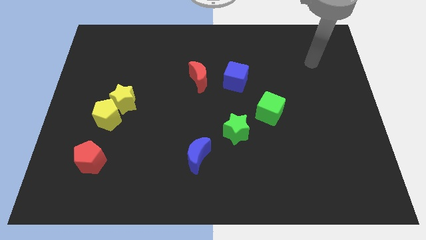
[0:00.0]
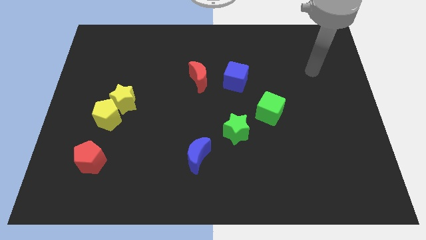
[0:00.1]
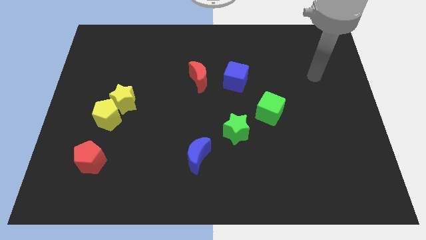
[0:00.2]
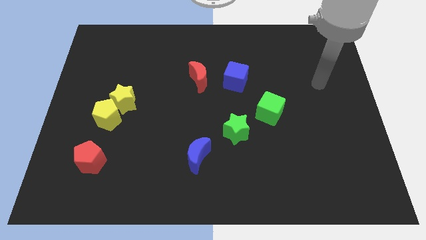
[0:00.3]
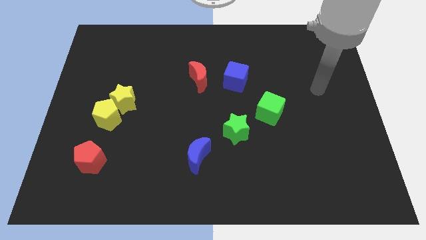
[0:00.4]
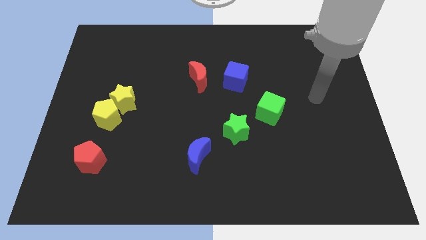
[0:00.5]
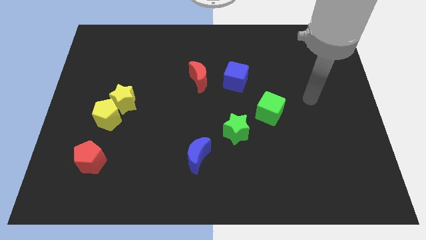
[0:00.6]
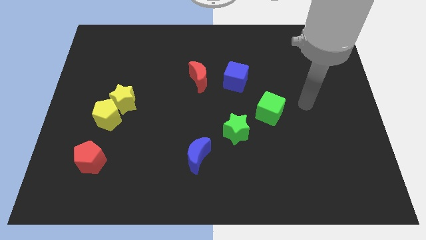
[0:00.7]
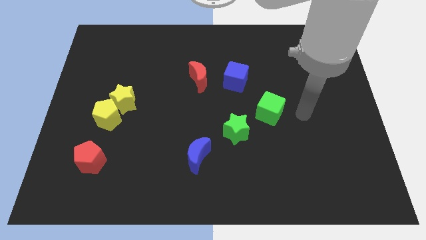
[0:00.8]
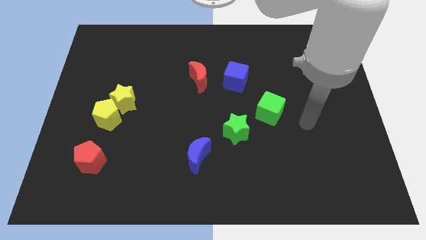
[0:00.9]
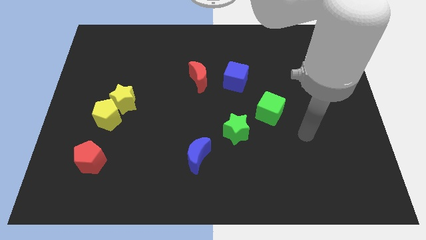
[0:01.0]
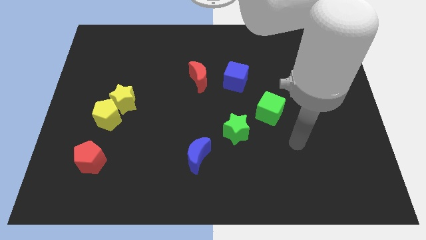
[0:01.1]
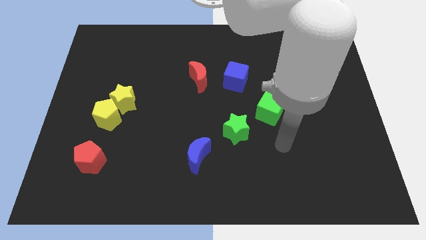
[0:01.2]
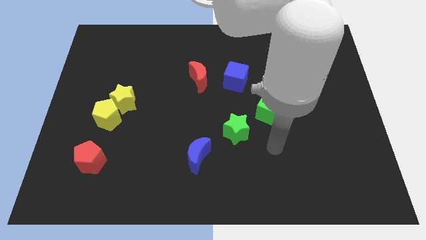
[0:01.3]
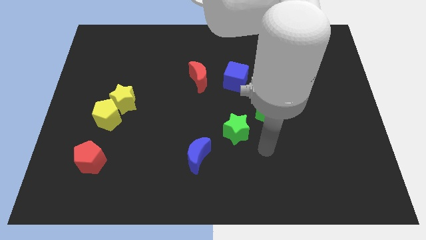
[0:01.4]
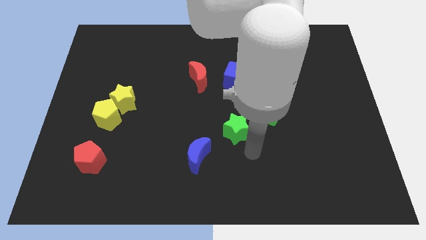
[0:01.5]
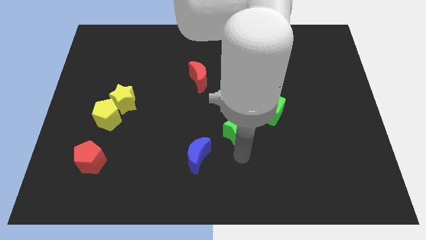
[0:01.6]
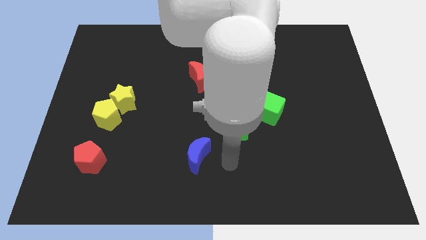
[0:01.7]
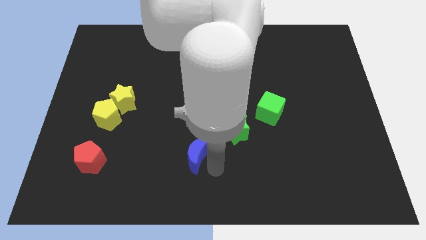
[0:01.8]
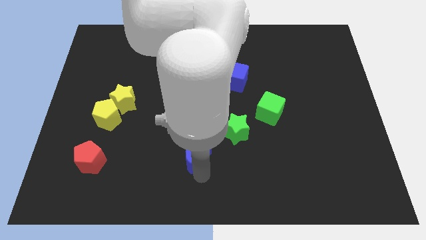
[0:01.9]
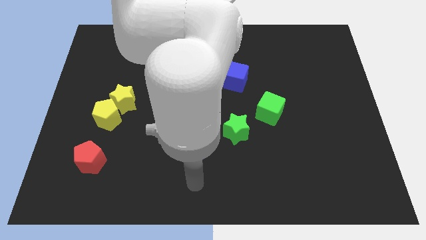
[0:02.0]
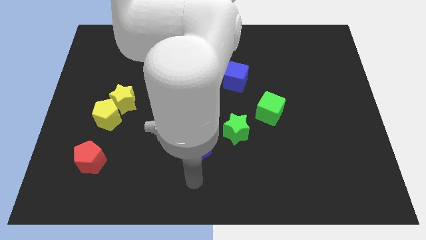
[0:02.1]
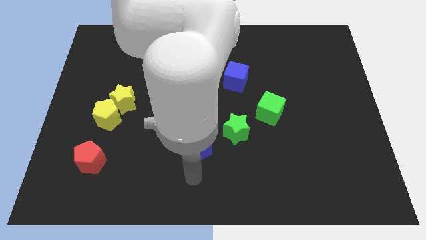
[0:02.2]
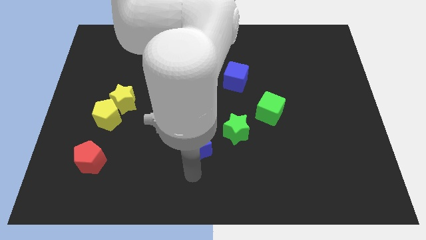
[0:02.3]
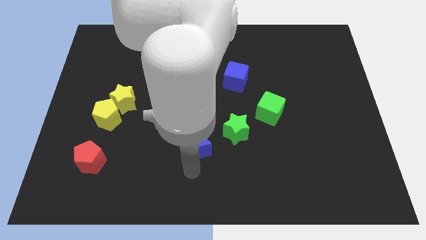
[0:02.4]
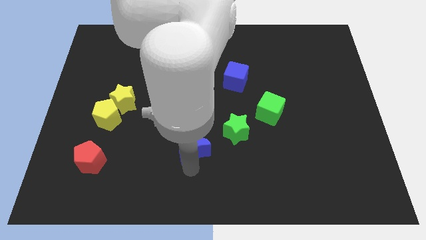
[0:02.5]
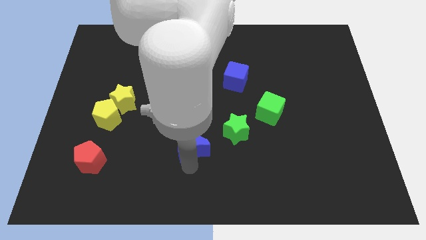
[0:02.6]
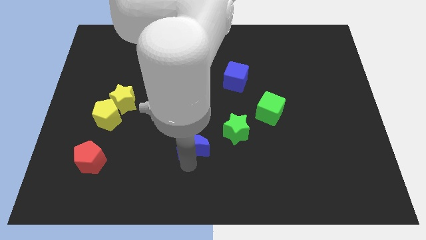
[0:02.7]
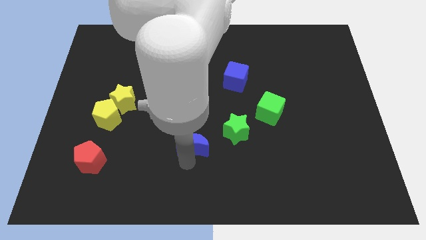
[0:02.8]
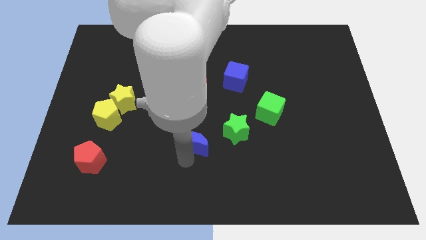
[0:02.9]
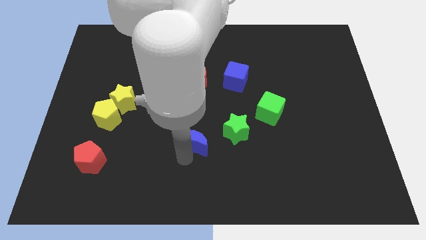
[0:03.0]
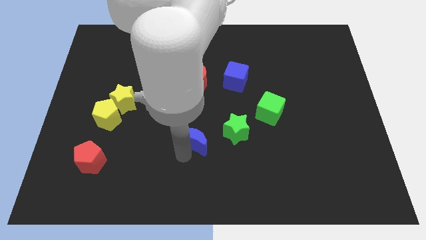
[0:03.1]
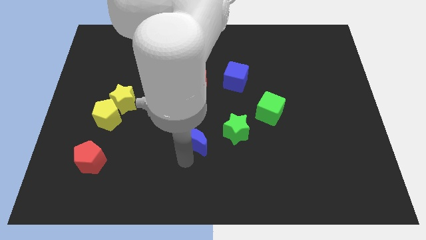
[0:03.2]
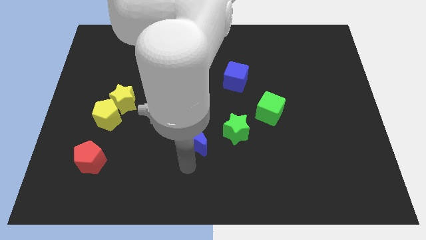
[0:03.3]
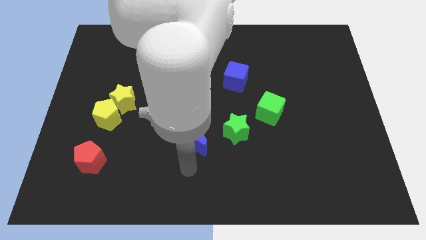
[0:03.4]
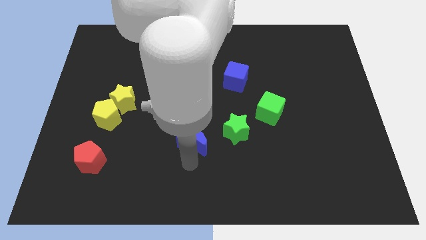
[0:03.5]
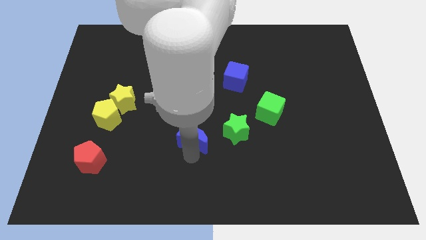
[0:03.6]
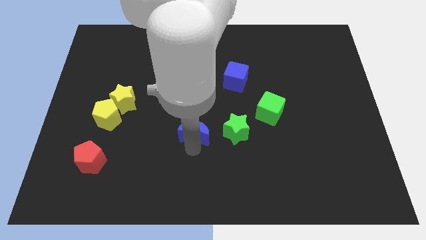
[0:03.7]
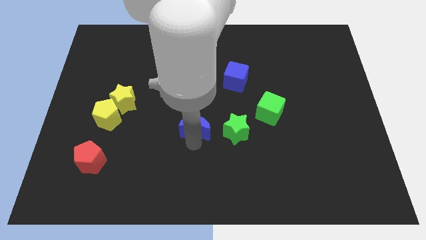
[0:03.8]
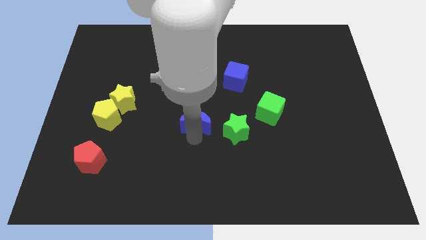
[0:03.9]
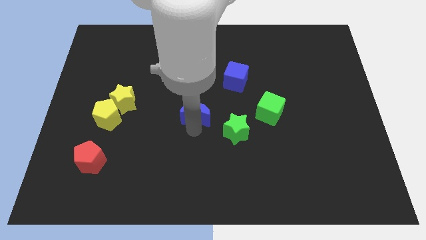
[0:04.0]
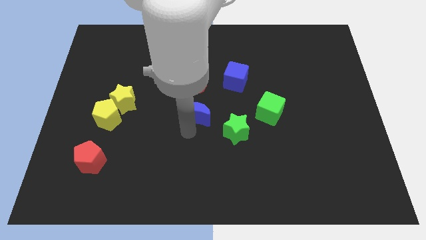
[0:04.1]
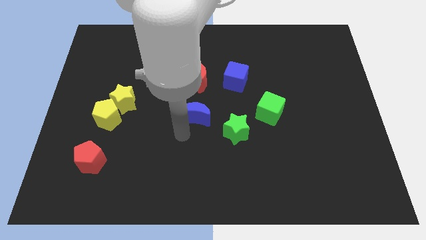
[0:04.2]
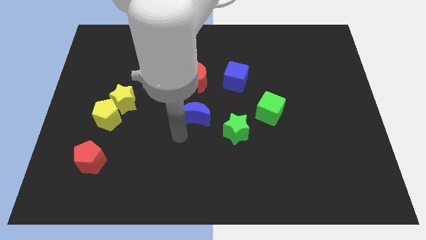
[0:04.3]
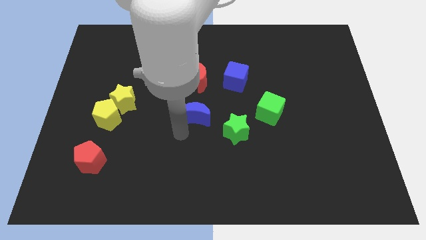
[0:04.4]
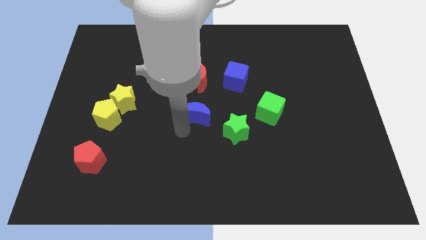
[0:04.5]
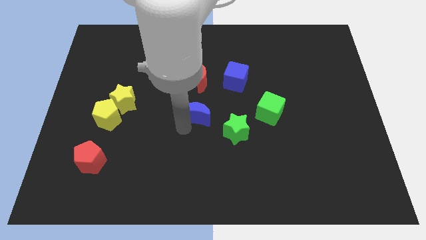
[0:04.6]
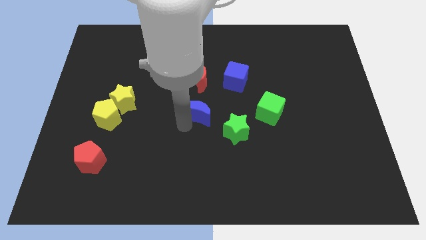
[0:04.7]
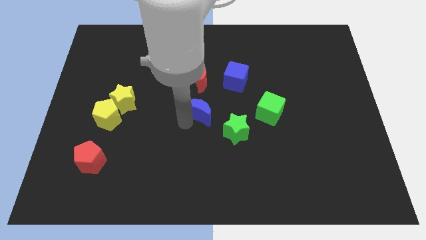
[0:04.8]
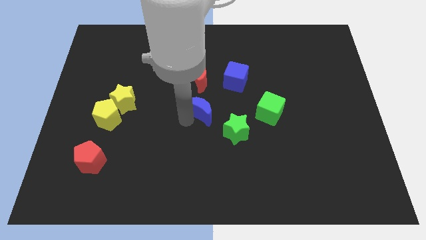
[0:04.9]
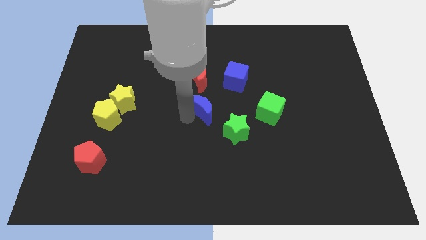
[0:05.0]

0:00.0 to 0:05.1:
put the blue moon to the bottom left side of the blue cube

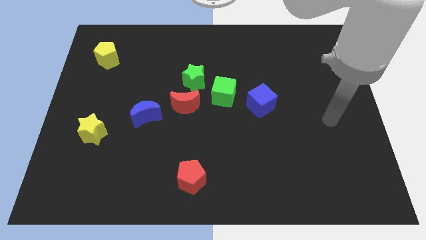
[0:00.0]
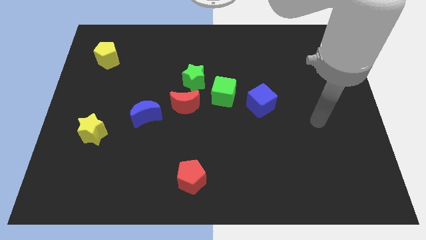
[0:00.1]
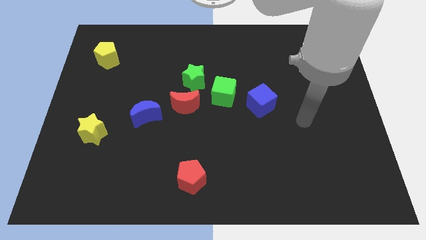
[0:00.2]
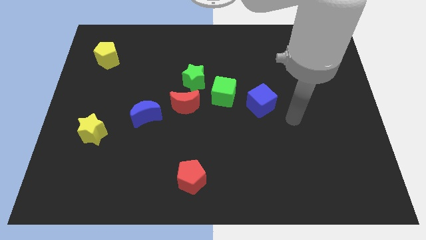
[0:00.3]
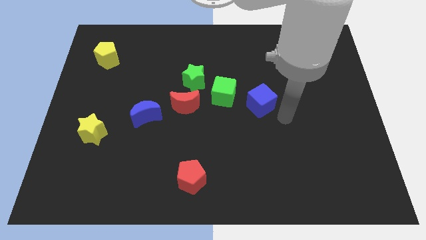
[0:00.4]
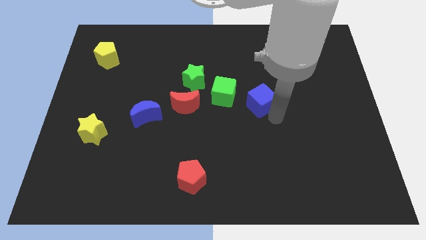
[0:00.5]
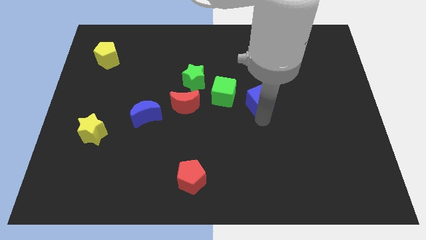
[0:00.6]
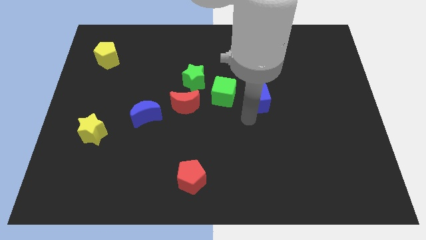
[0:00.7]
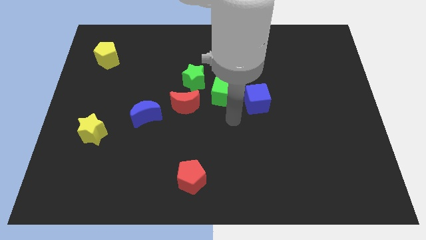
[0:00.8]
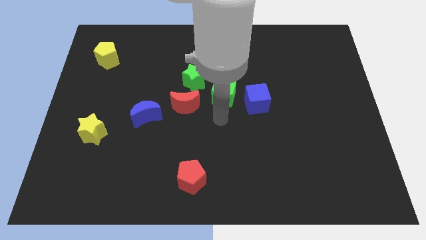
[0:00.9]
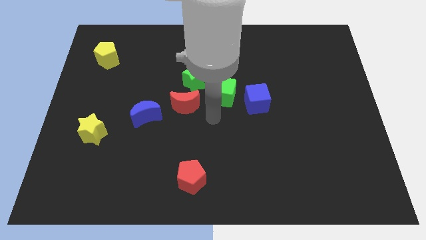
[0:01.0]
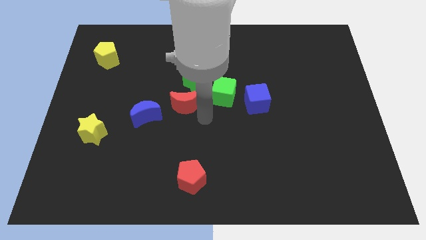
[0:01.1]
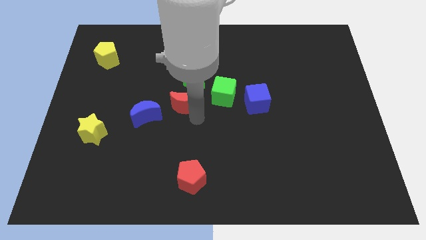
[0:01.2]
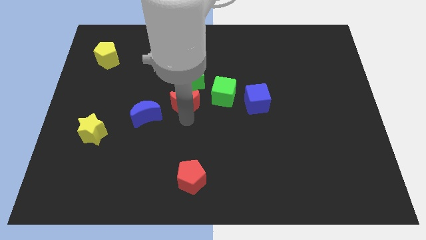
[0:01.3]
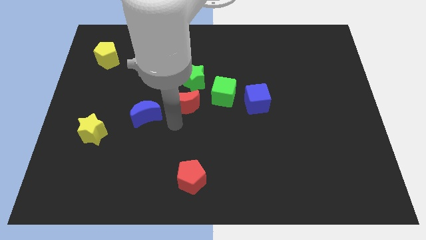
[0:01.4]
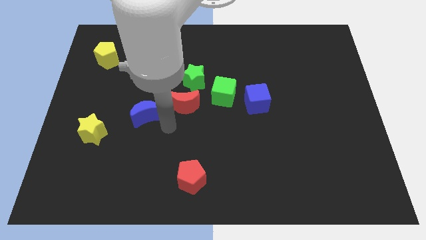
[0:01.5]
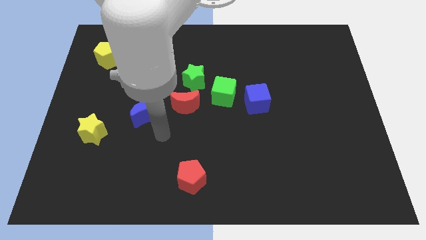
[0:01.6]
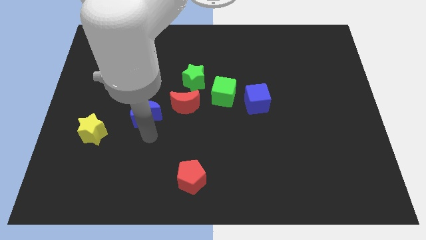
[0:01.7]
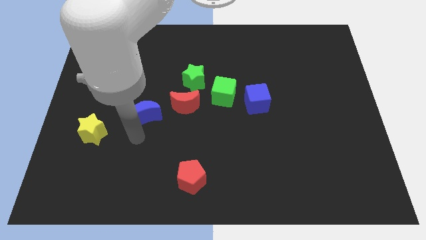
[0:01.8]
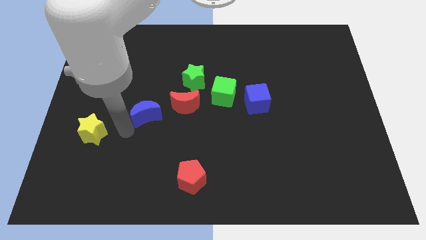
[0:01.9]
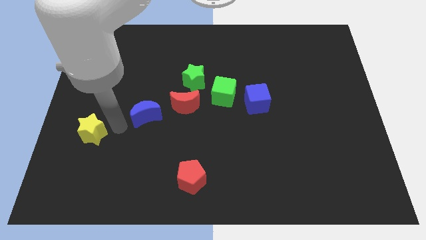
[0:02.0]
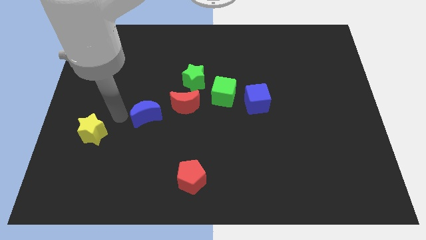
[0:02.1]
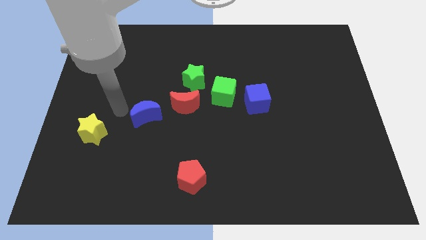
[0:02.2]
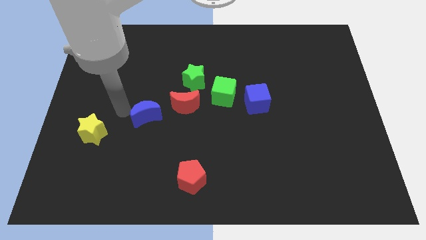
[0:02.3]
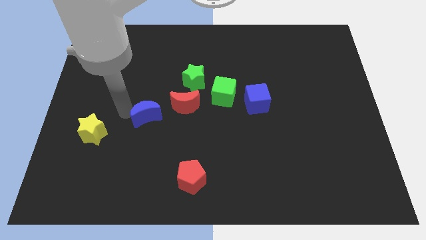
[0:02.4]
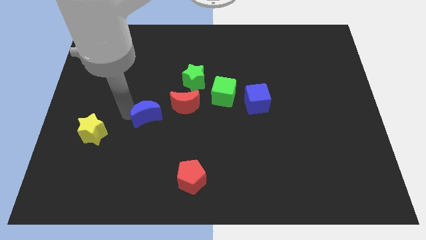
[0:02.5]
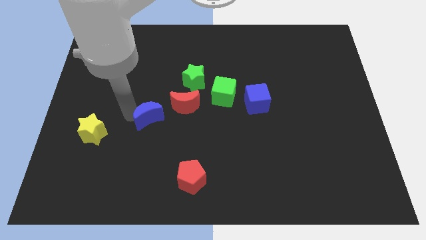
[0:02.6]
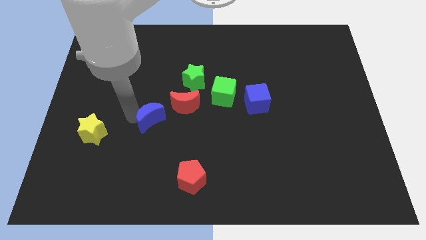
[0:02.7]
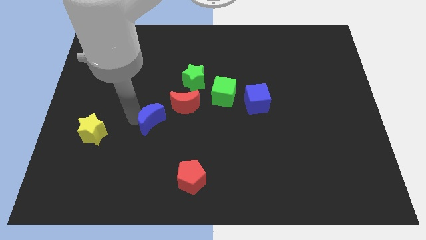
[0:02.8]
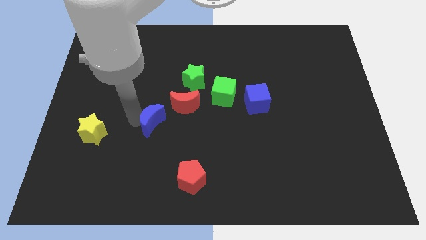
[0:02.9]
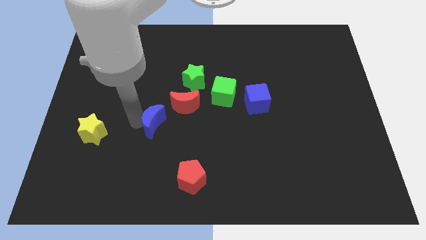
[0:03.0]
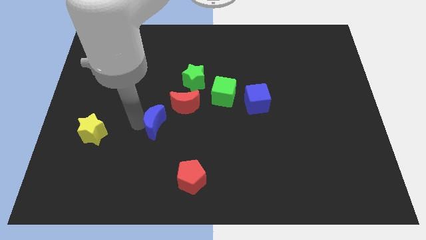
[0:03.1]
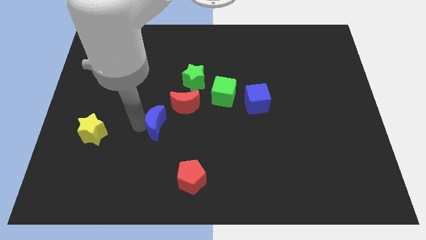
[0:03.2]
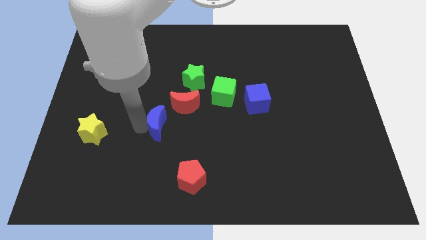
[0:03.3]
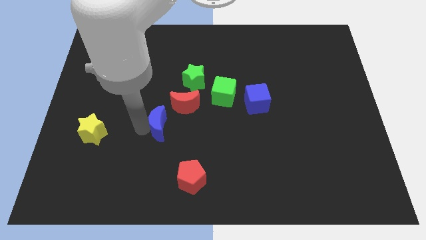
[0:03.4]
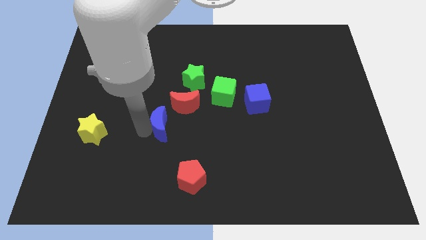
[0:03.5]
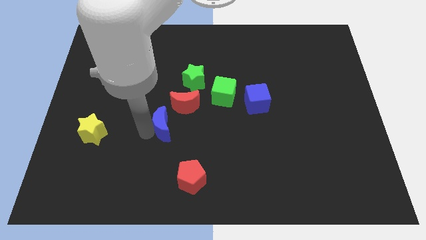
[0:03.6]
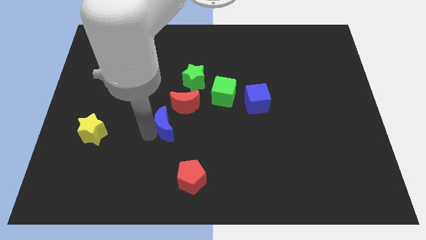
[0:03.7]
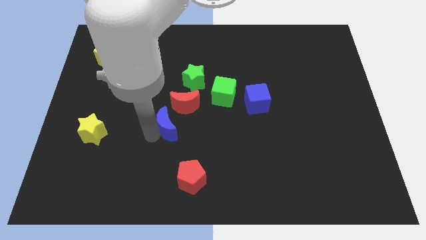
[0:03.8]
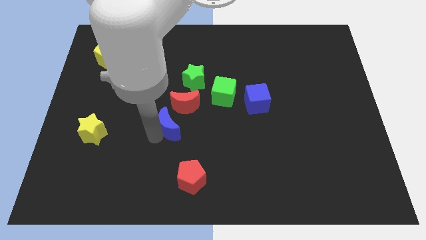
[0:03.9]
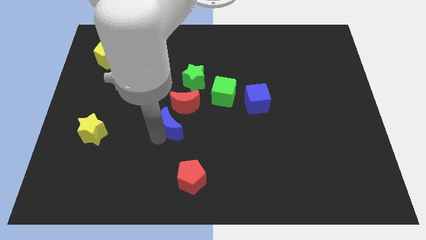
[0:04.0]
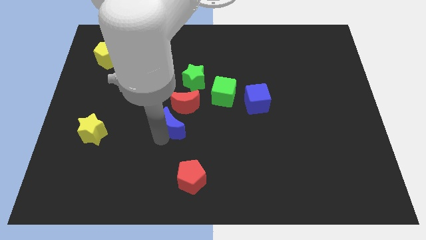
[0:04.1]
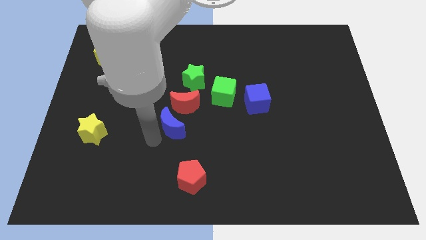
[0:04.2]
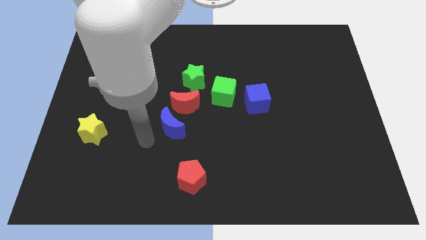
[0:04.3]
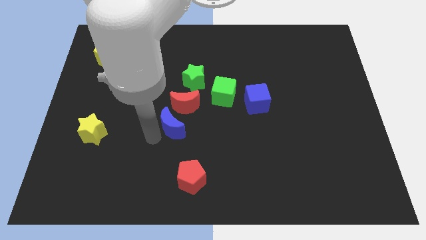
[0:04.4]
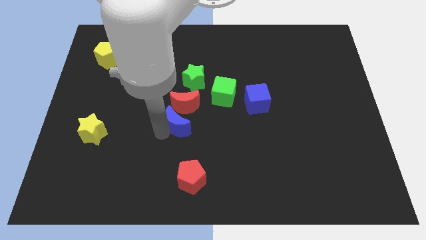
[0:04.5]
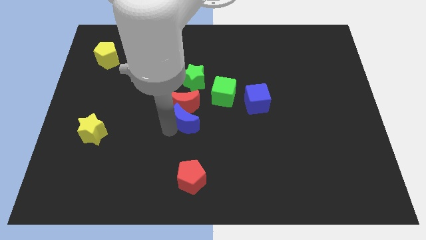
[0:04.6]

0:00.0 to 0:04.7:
put the blue moon diagonally down and to the left of the green cube
